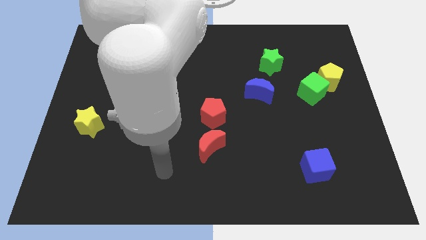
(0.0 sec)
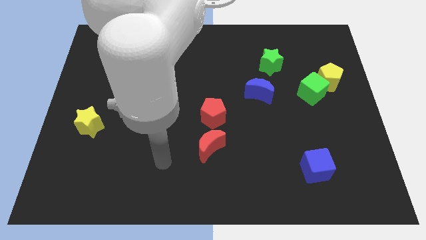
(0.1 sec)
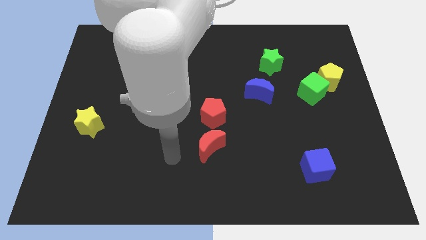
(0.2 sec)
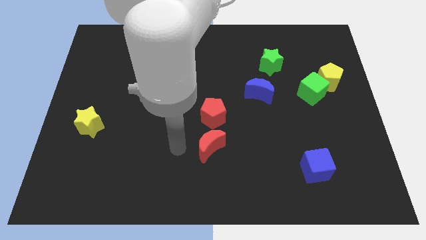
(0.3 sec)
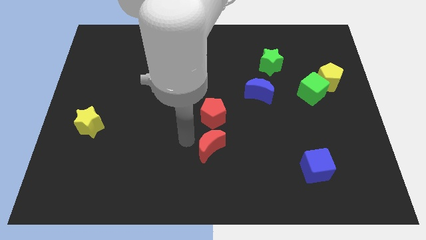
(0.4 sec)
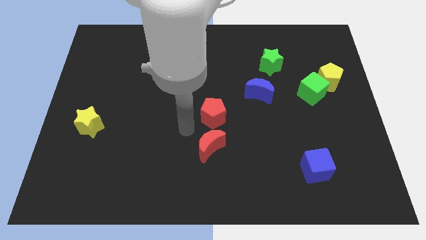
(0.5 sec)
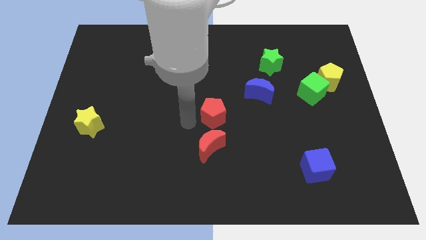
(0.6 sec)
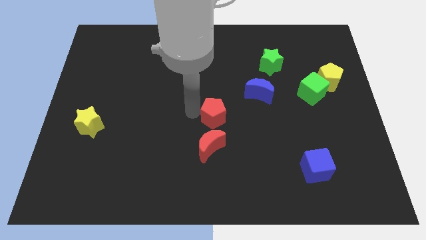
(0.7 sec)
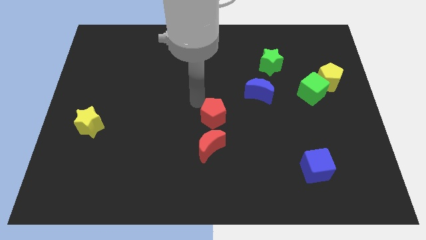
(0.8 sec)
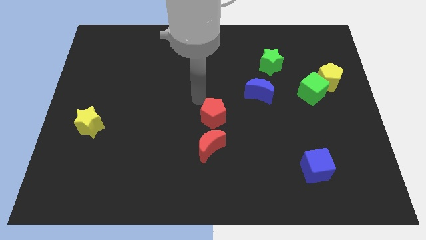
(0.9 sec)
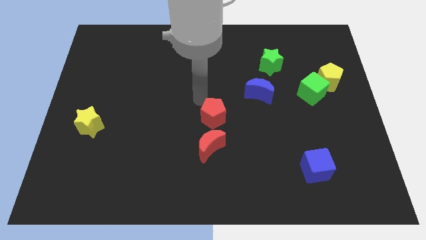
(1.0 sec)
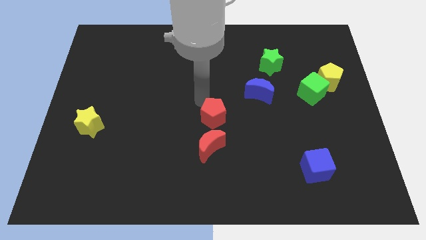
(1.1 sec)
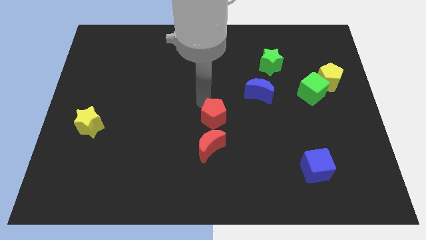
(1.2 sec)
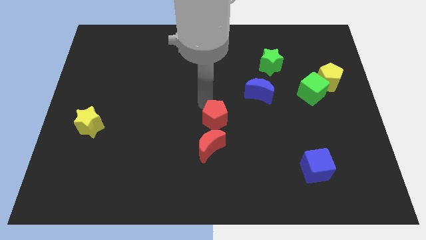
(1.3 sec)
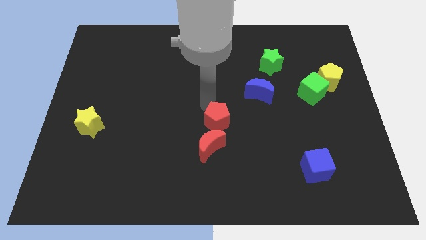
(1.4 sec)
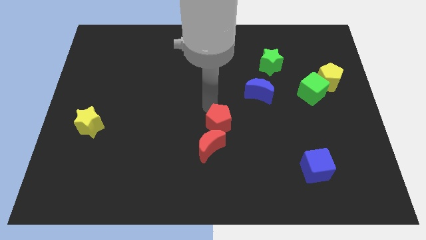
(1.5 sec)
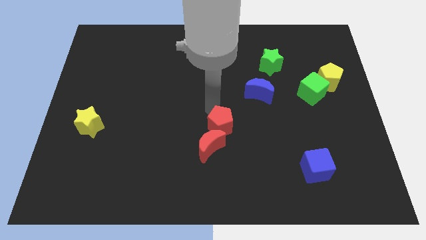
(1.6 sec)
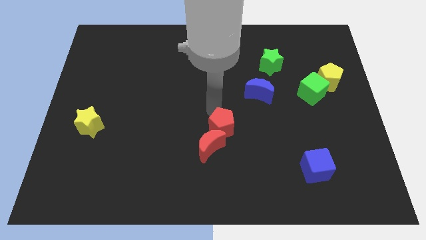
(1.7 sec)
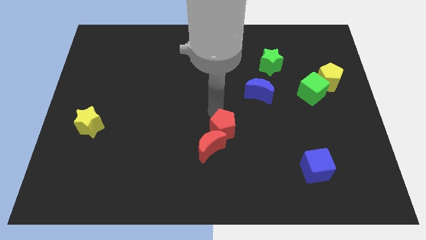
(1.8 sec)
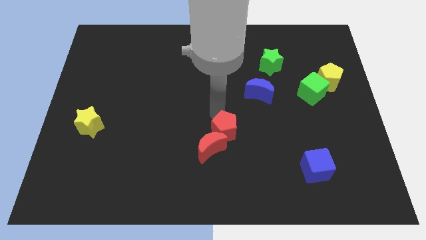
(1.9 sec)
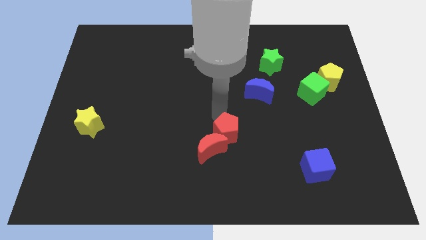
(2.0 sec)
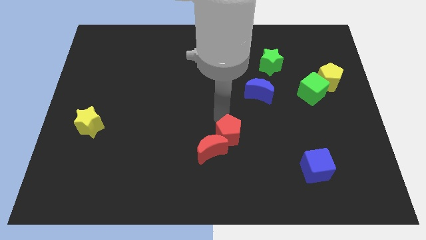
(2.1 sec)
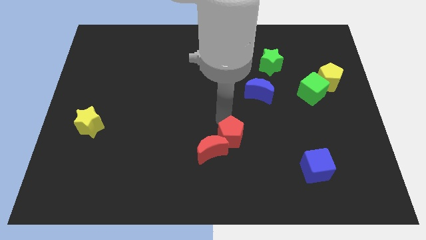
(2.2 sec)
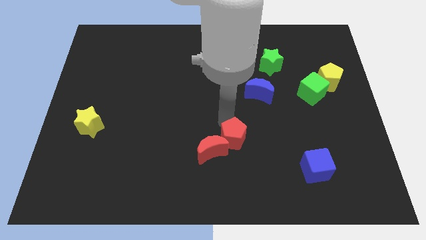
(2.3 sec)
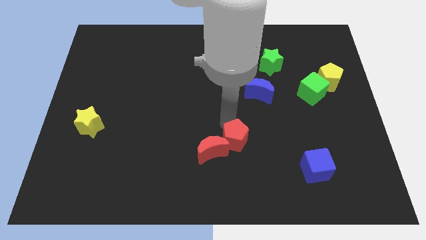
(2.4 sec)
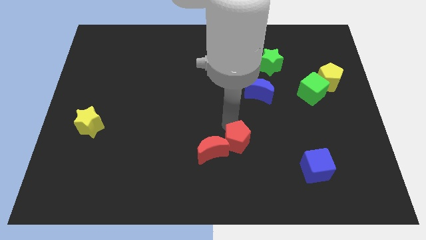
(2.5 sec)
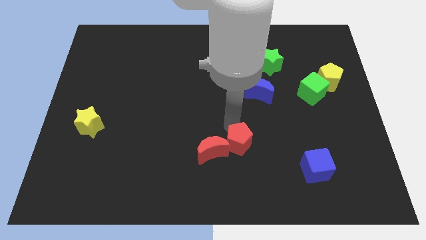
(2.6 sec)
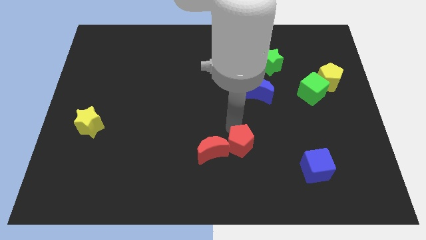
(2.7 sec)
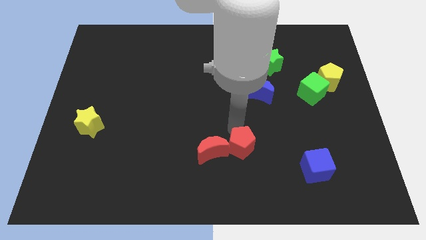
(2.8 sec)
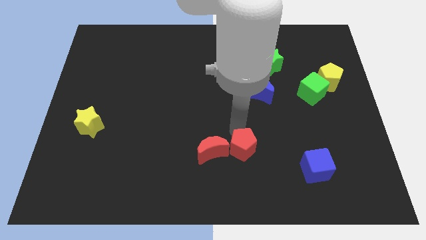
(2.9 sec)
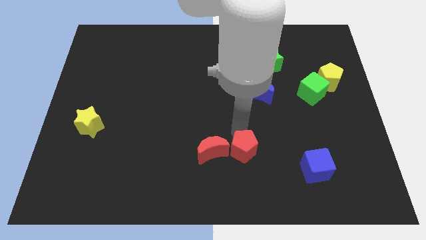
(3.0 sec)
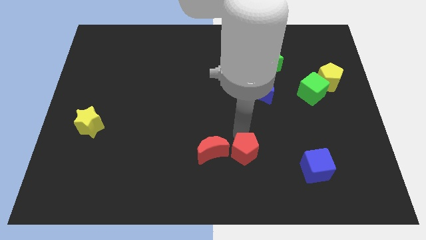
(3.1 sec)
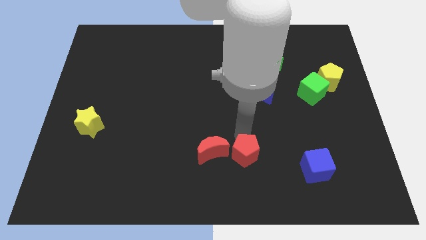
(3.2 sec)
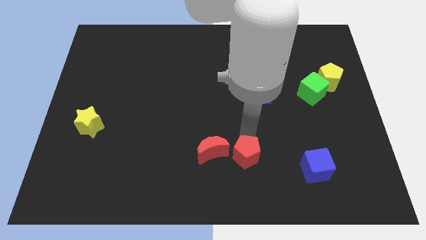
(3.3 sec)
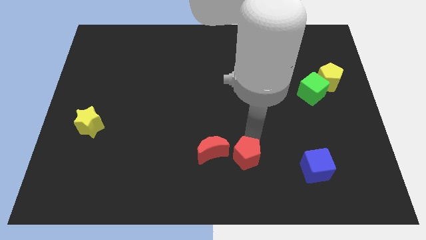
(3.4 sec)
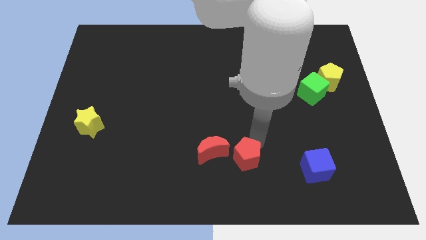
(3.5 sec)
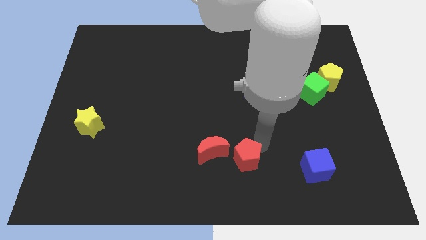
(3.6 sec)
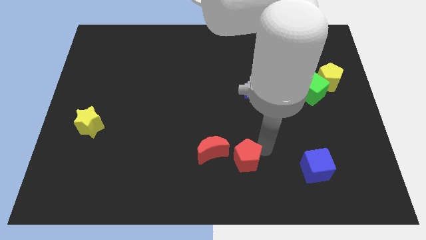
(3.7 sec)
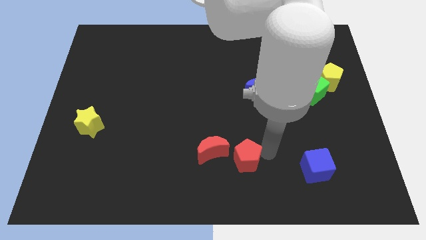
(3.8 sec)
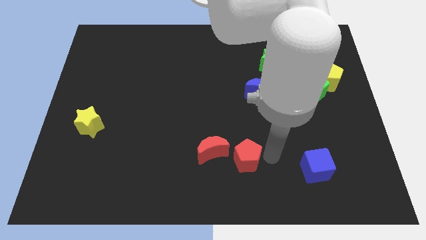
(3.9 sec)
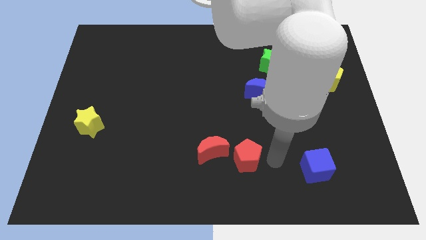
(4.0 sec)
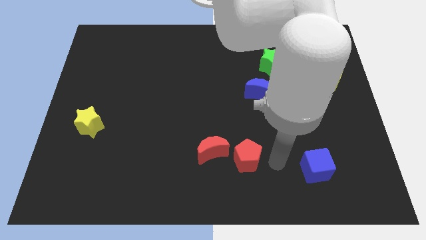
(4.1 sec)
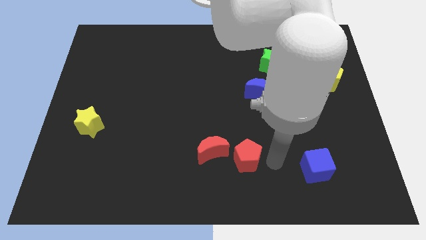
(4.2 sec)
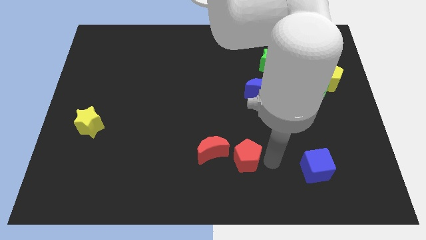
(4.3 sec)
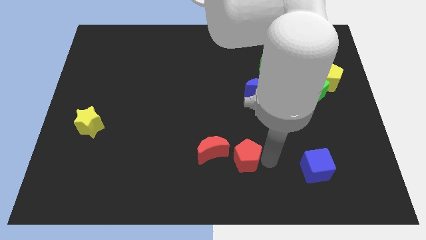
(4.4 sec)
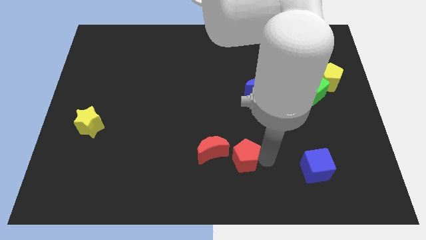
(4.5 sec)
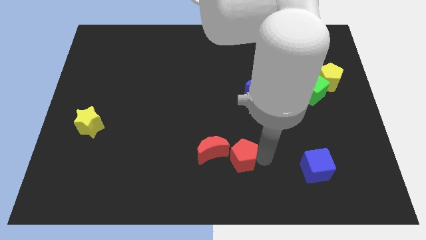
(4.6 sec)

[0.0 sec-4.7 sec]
move the red pentagon to the bottom

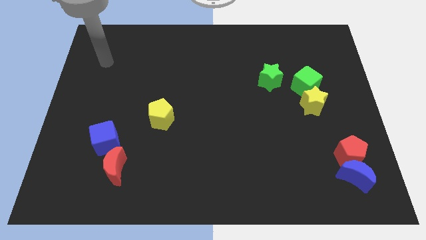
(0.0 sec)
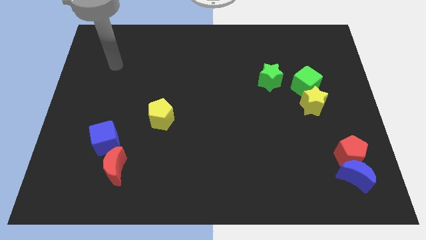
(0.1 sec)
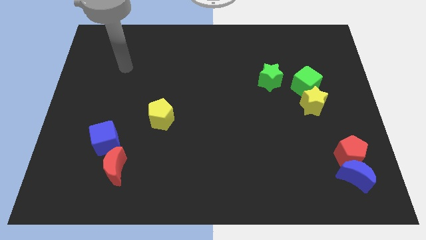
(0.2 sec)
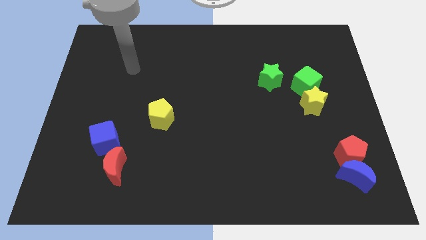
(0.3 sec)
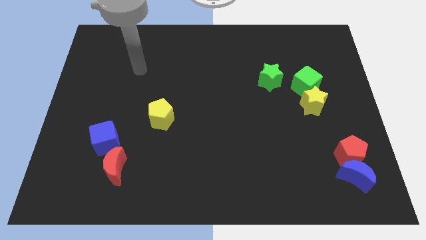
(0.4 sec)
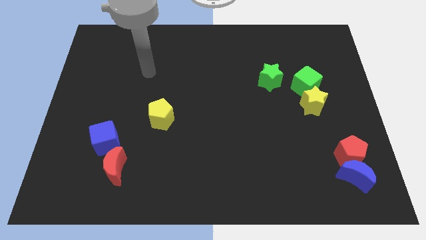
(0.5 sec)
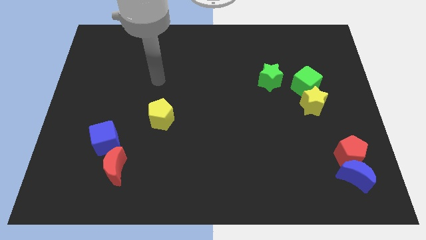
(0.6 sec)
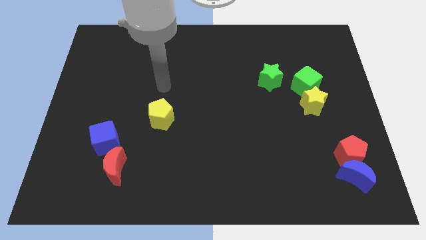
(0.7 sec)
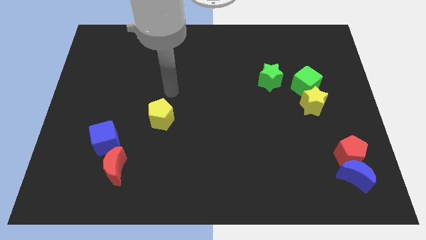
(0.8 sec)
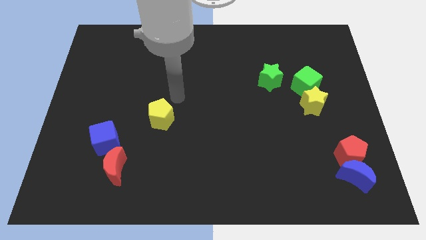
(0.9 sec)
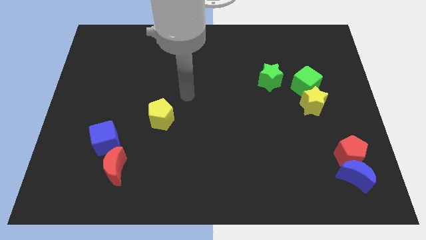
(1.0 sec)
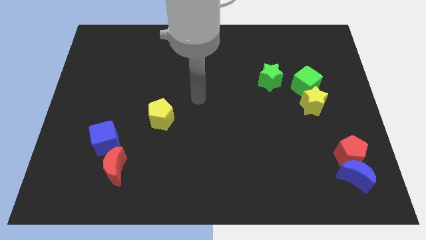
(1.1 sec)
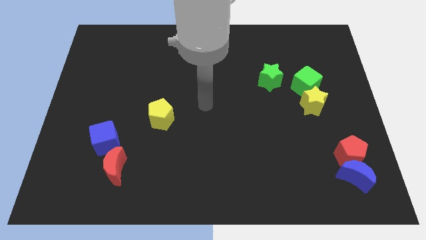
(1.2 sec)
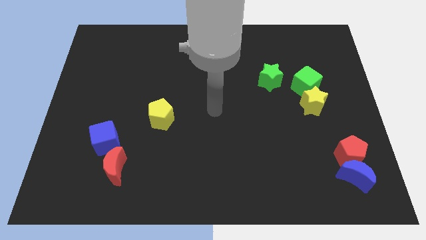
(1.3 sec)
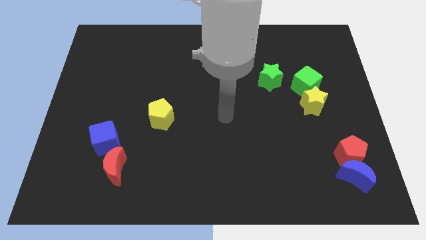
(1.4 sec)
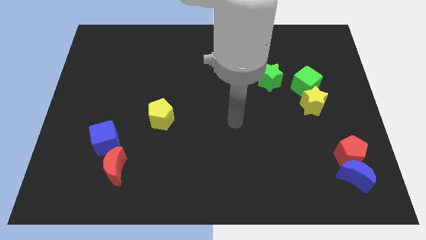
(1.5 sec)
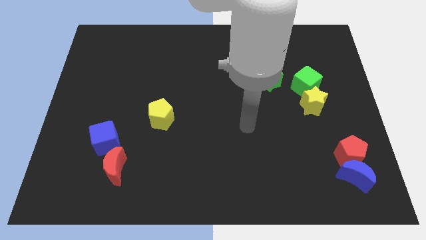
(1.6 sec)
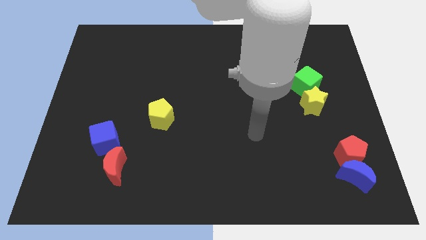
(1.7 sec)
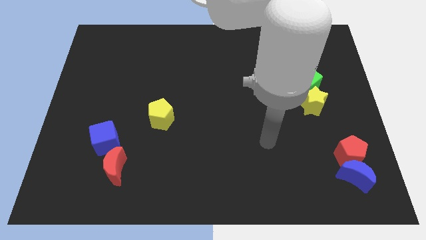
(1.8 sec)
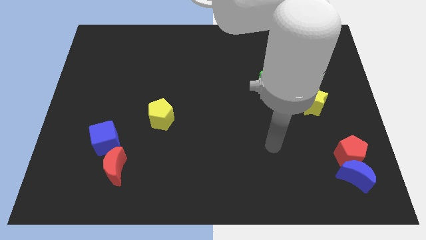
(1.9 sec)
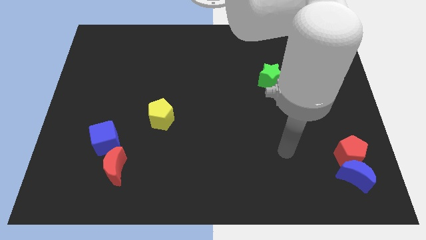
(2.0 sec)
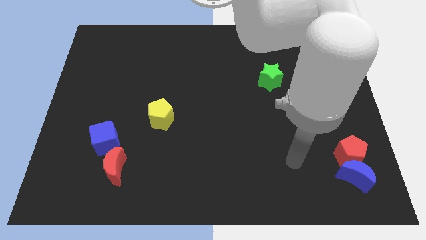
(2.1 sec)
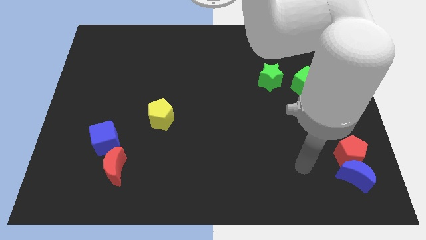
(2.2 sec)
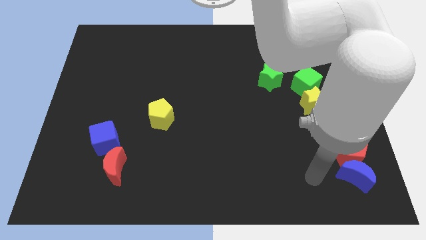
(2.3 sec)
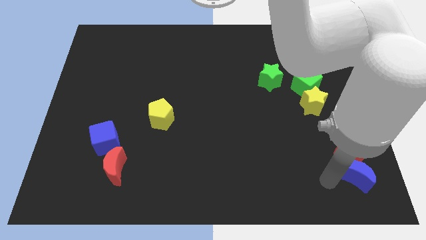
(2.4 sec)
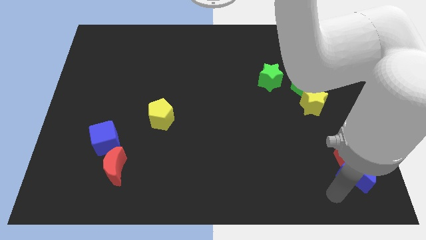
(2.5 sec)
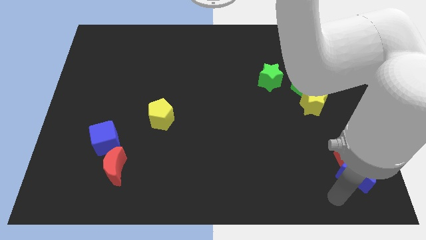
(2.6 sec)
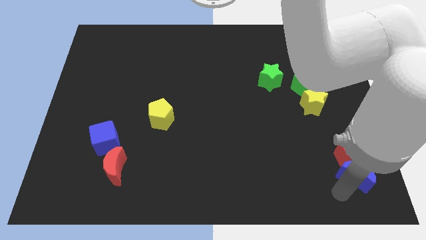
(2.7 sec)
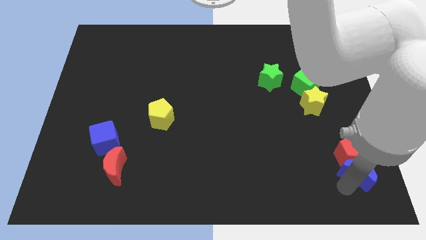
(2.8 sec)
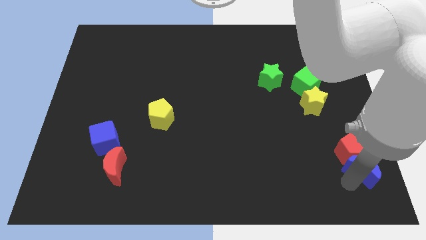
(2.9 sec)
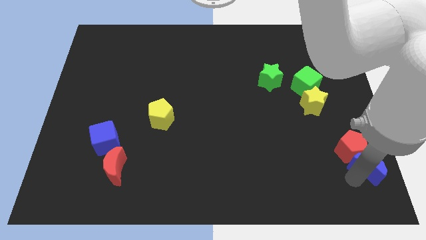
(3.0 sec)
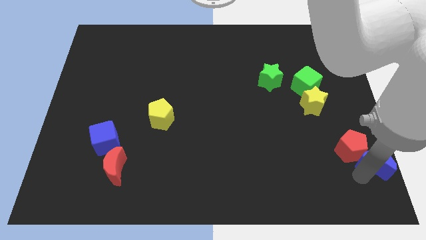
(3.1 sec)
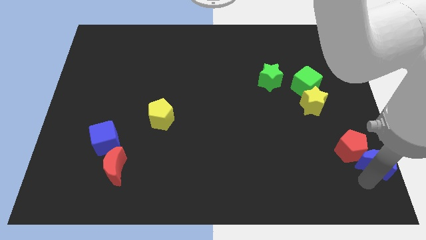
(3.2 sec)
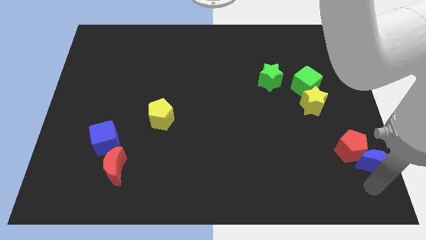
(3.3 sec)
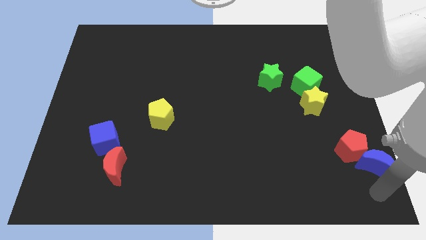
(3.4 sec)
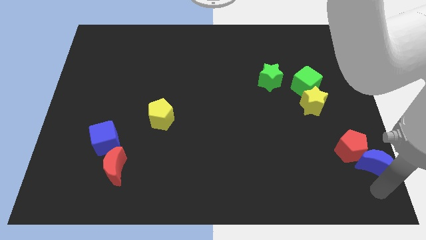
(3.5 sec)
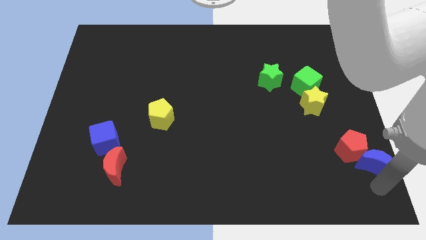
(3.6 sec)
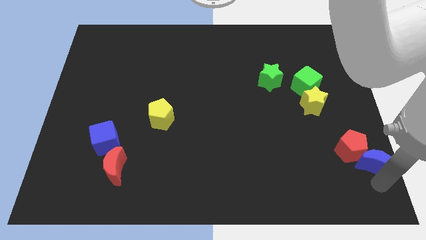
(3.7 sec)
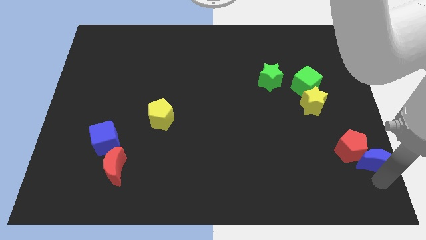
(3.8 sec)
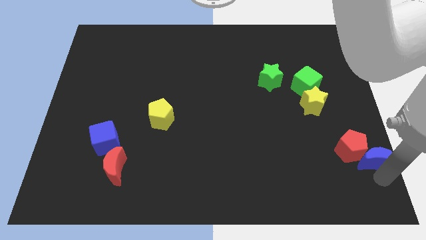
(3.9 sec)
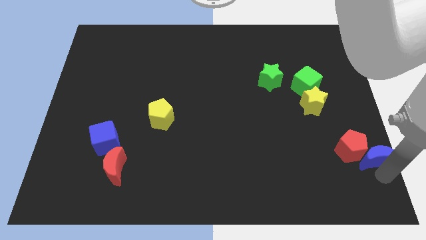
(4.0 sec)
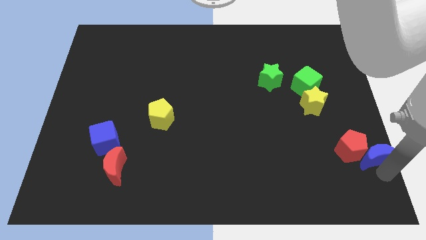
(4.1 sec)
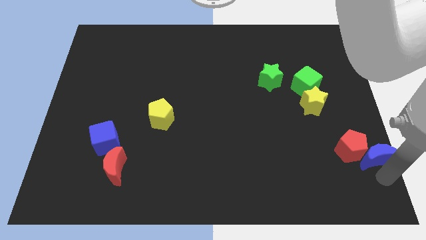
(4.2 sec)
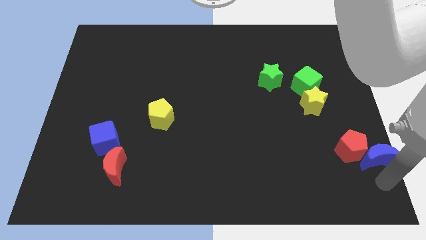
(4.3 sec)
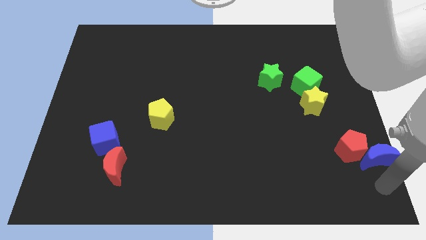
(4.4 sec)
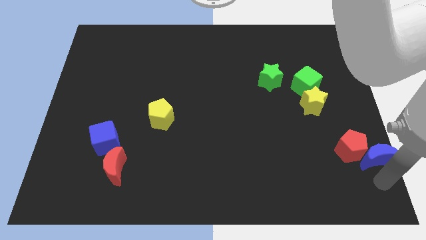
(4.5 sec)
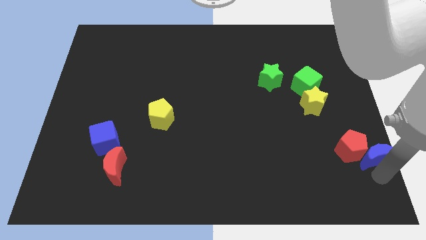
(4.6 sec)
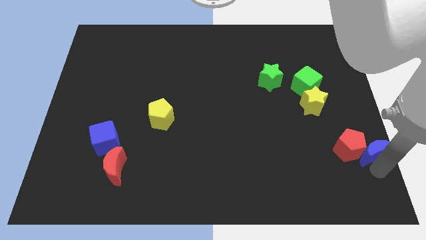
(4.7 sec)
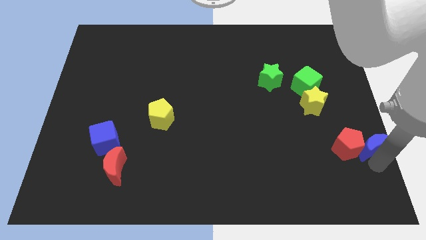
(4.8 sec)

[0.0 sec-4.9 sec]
put the blue moon to the center right
